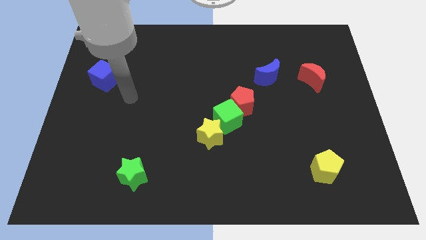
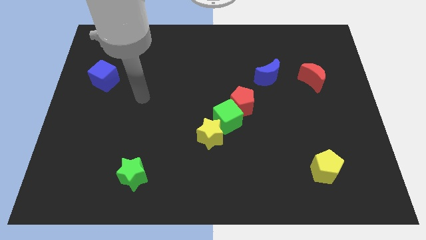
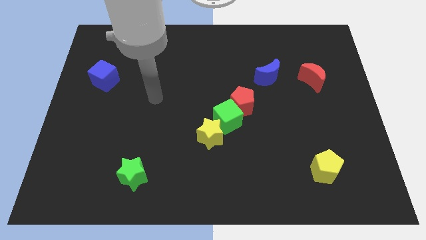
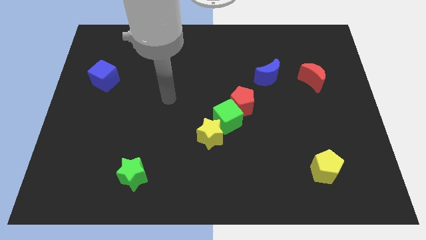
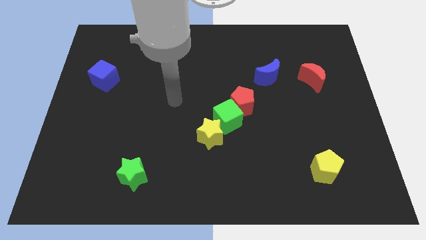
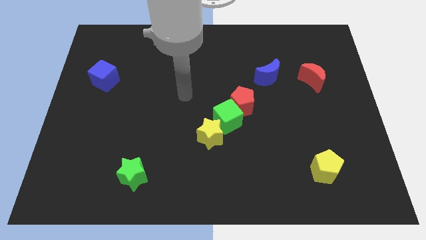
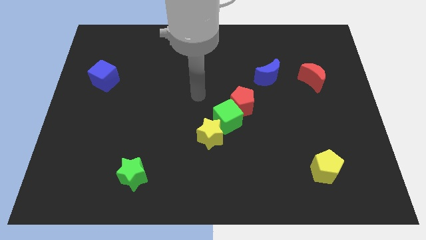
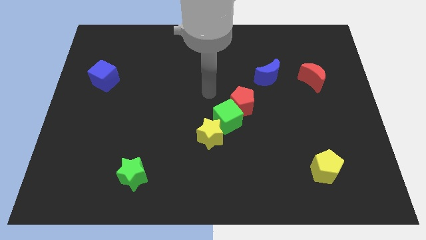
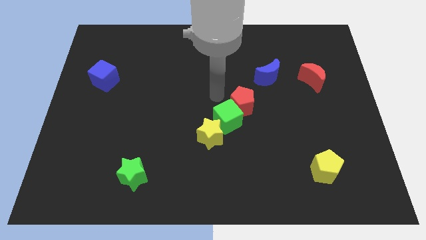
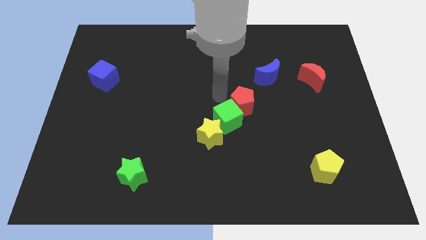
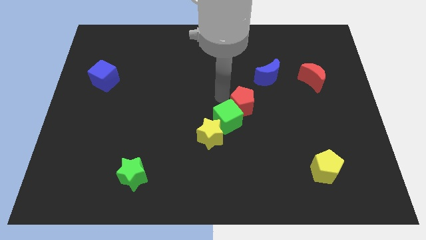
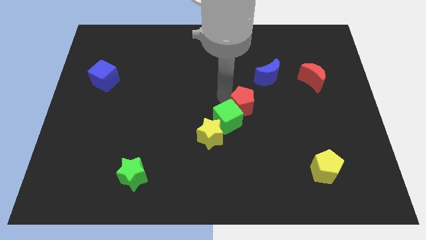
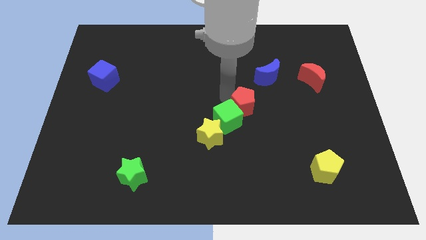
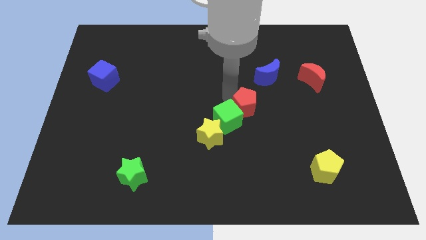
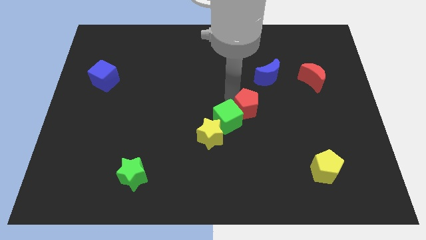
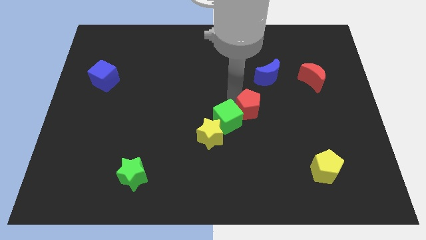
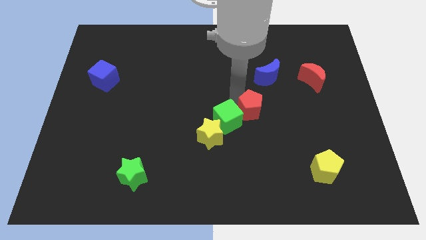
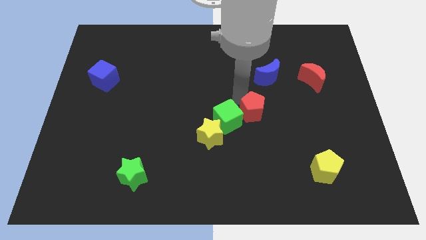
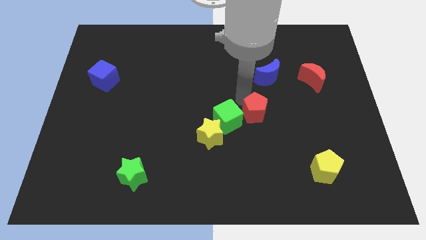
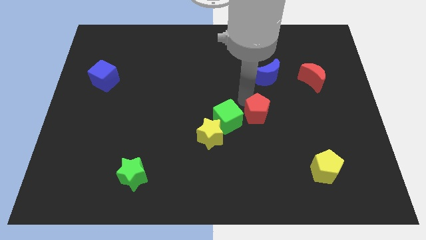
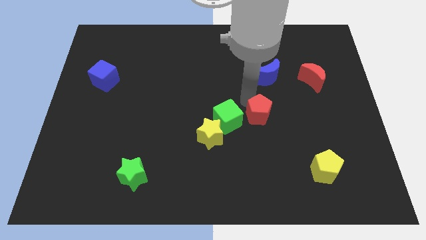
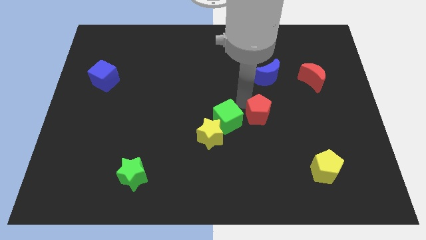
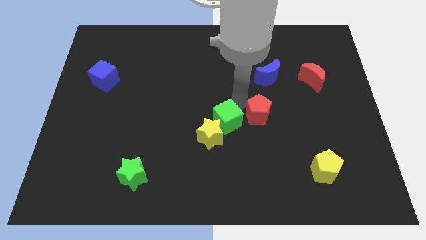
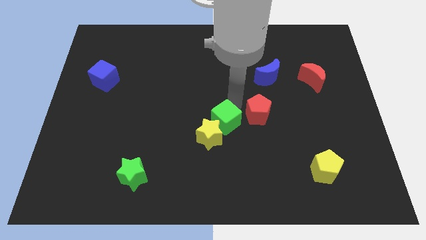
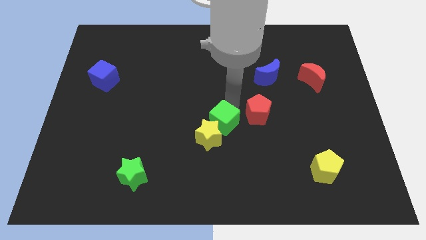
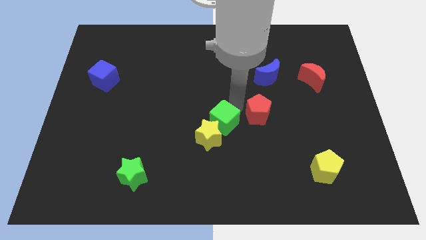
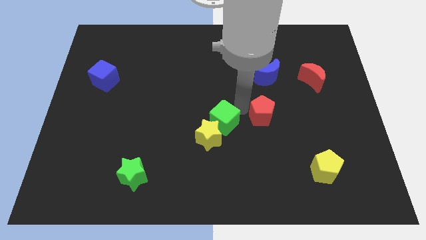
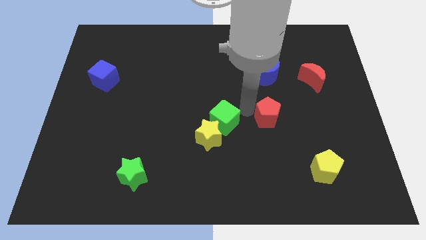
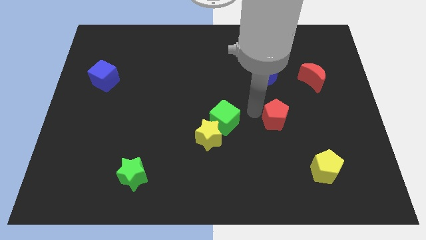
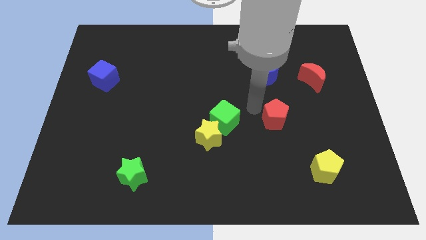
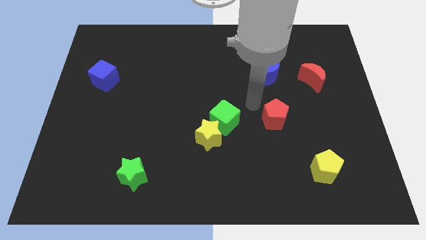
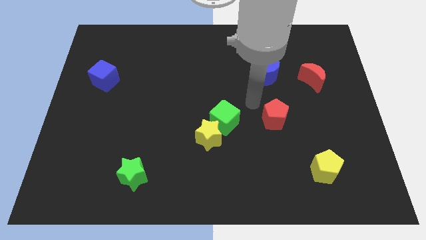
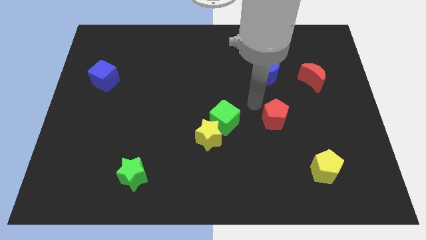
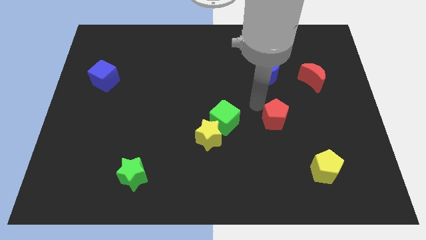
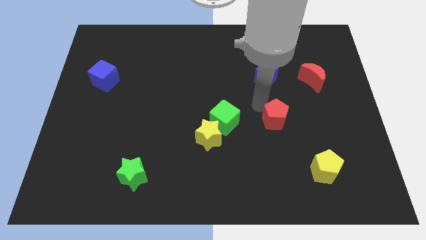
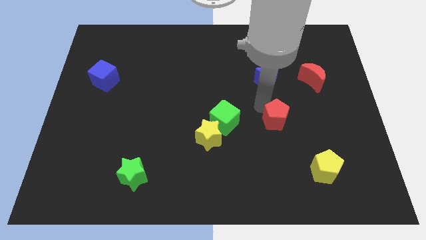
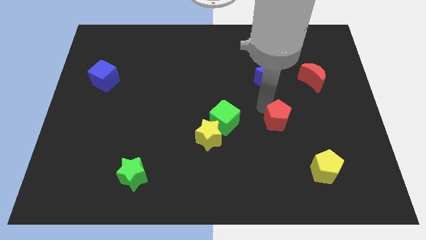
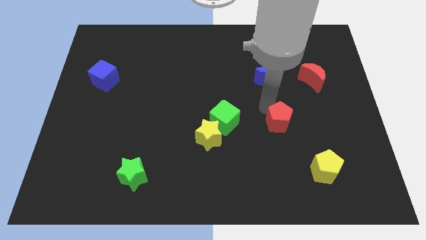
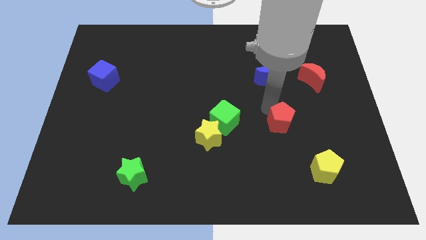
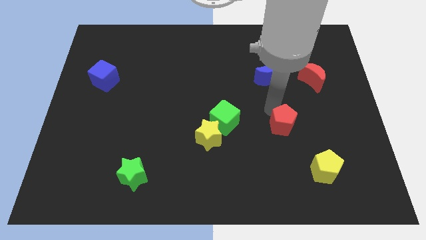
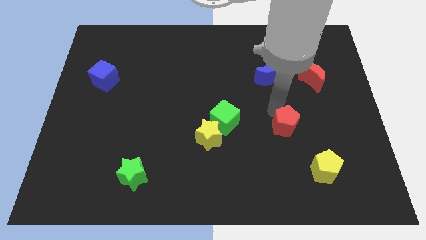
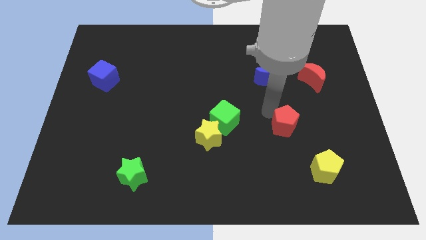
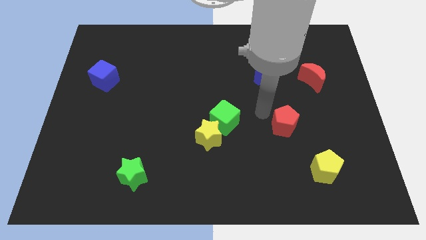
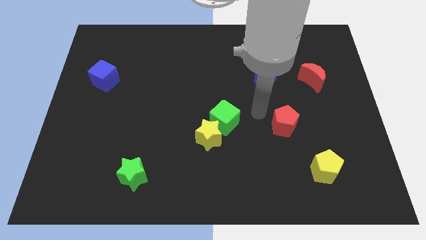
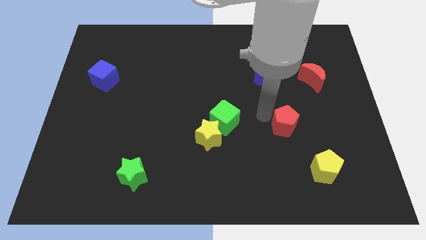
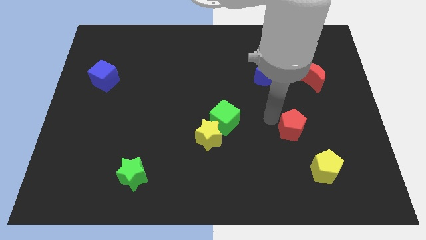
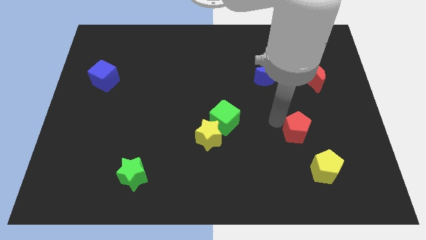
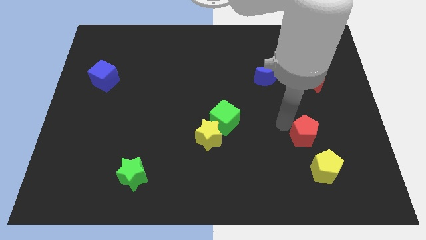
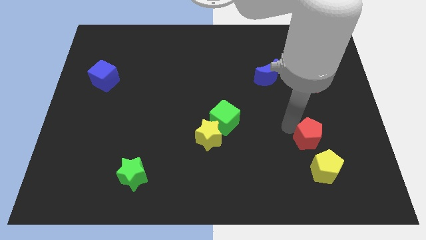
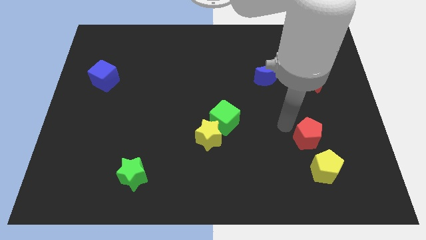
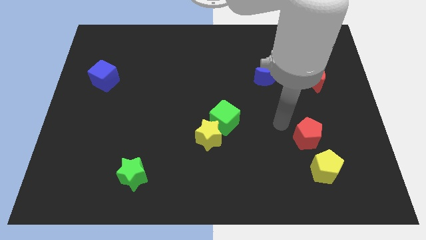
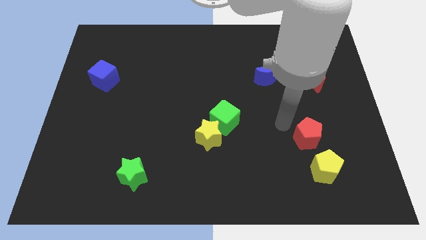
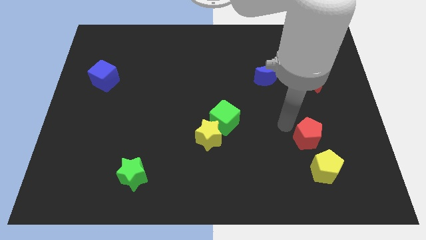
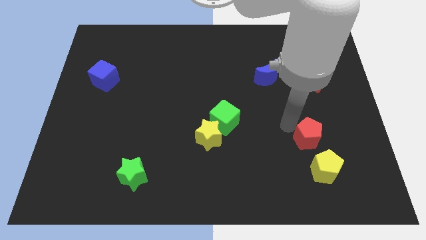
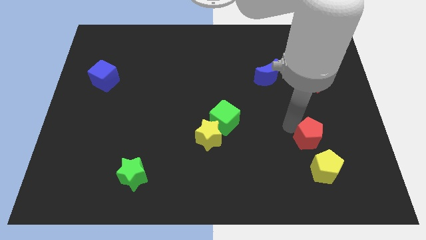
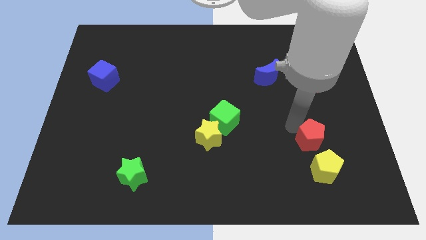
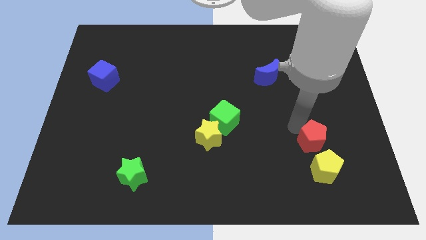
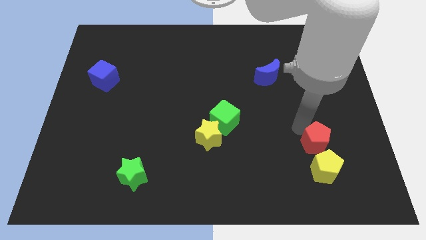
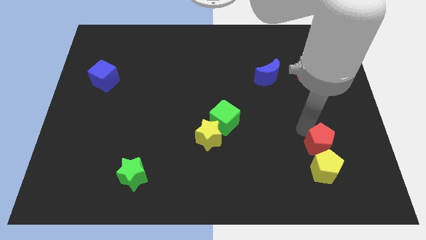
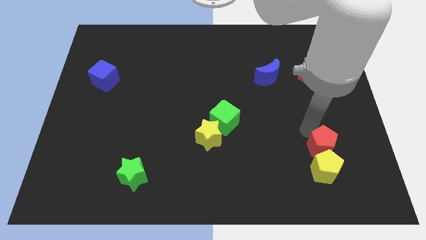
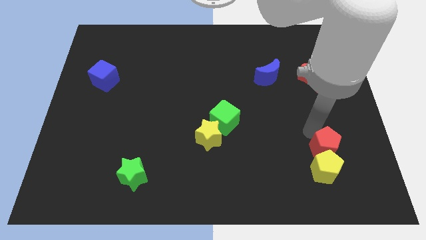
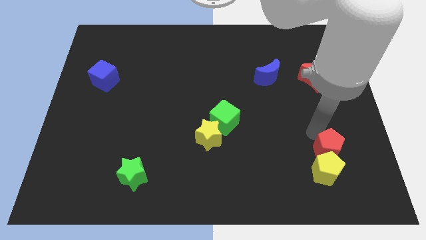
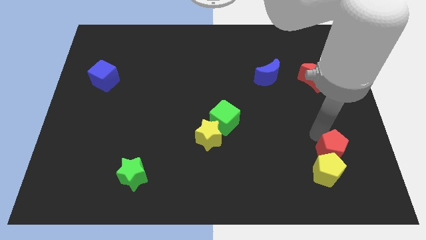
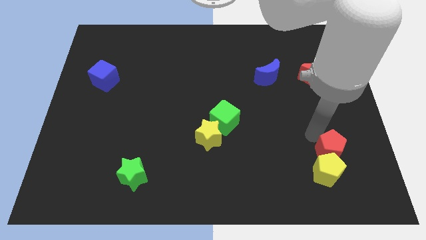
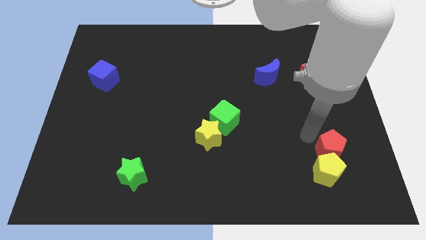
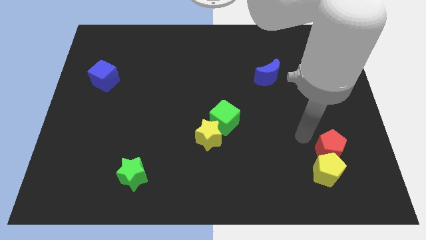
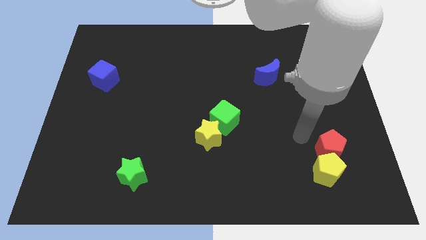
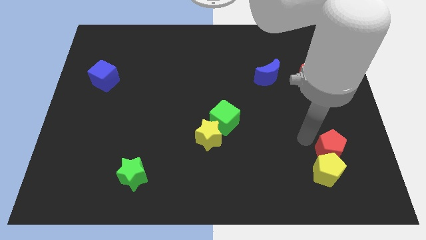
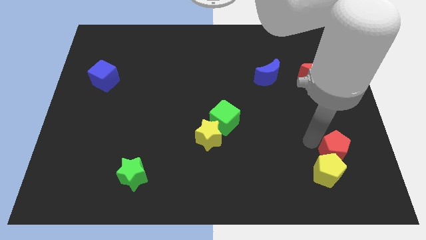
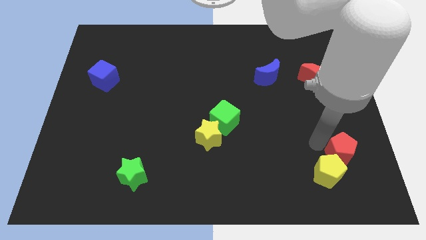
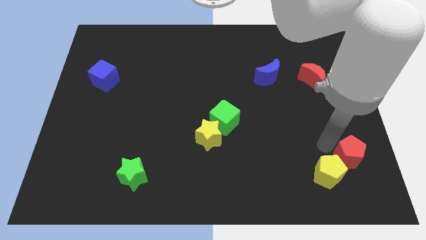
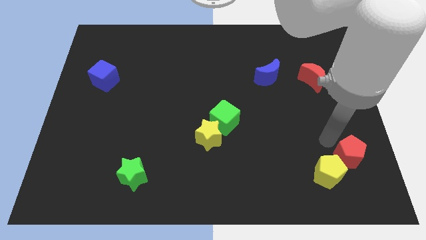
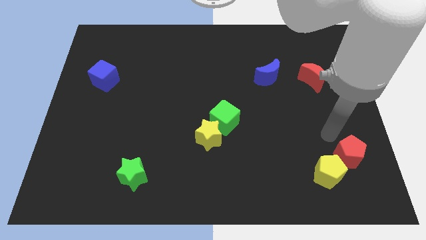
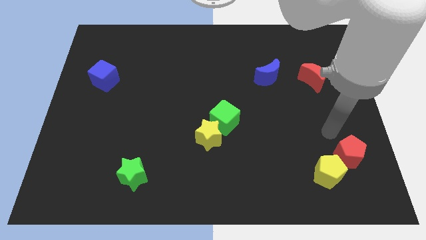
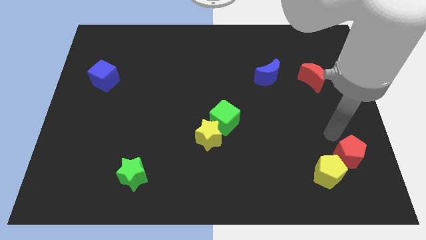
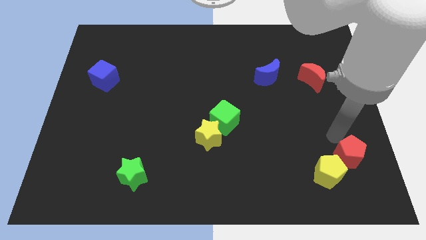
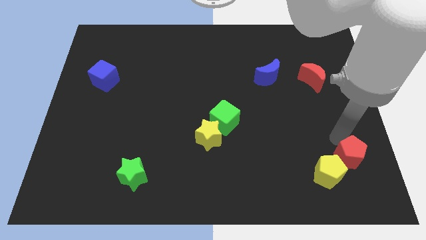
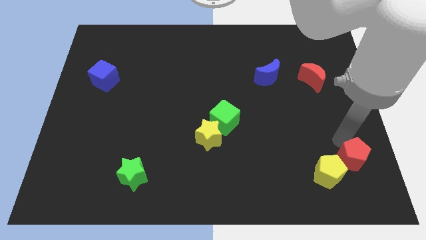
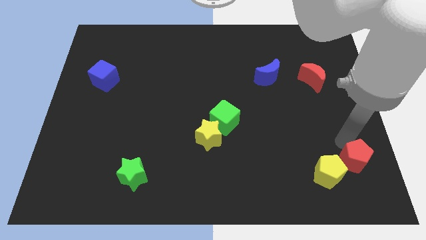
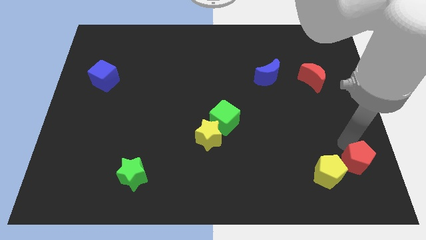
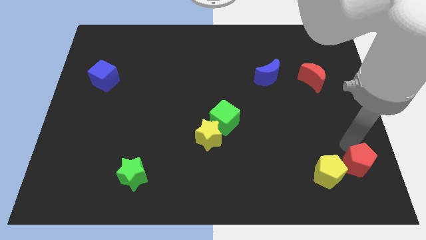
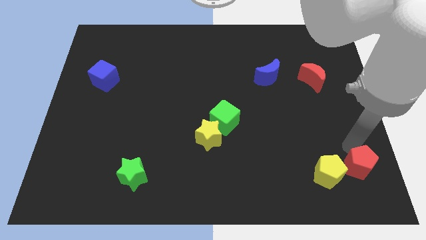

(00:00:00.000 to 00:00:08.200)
move the red pentagon to the lower right corner
